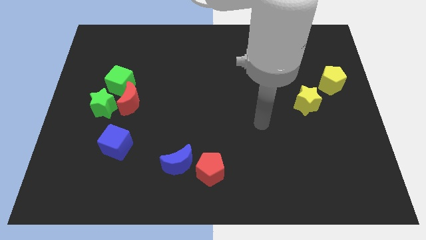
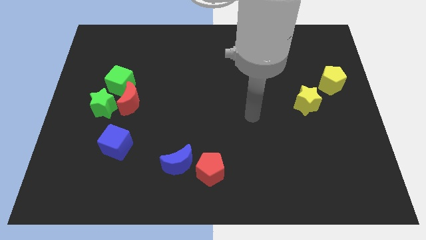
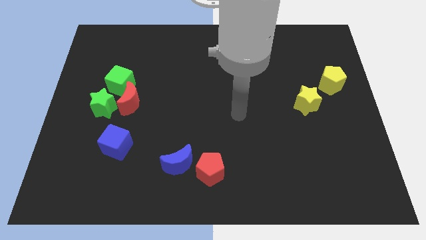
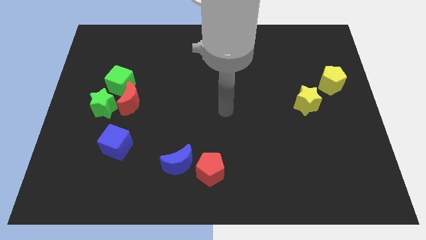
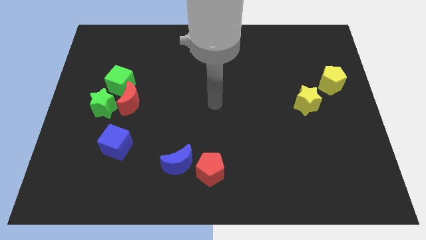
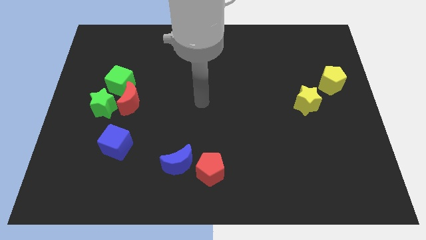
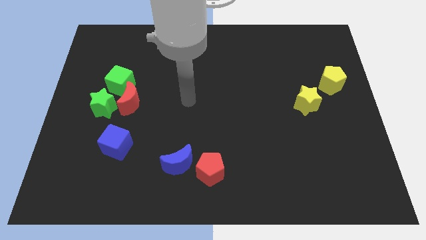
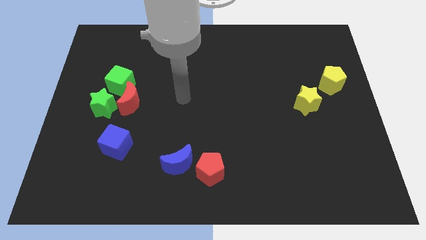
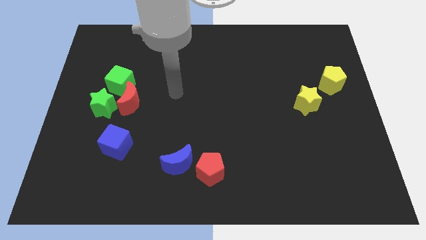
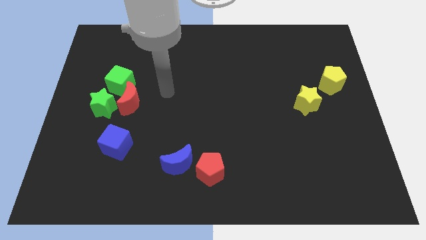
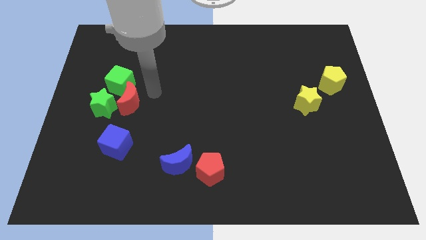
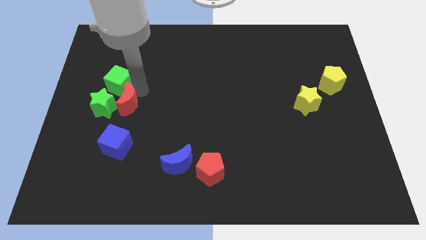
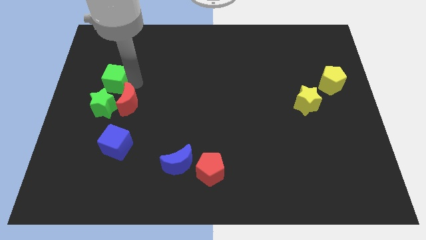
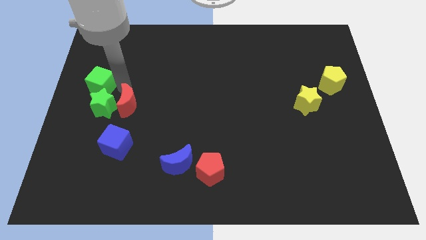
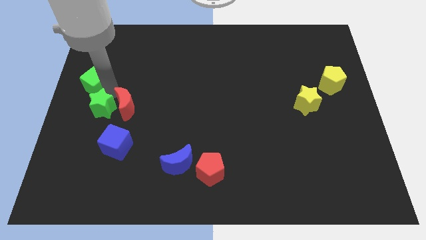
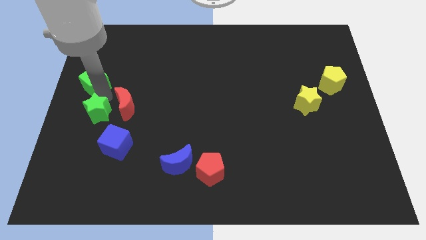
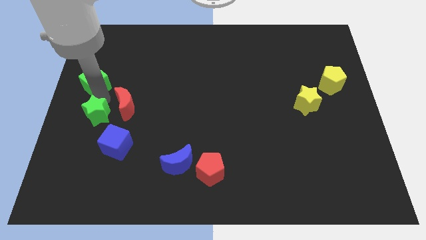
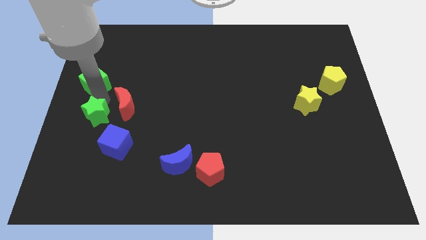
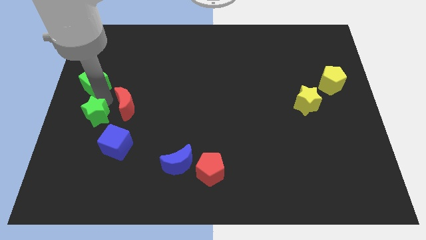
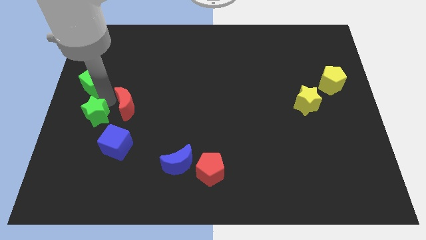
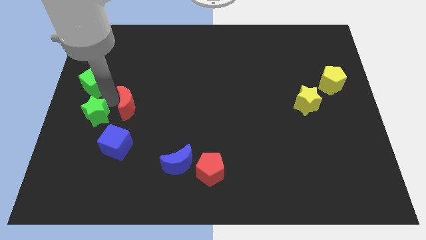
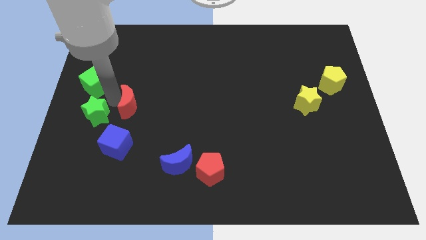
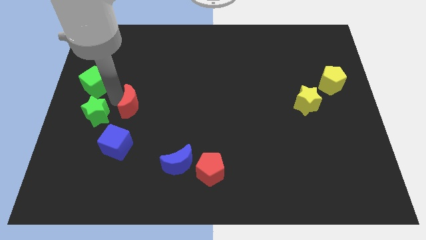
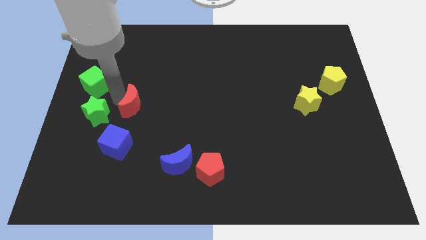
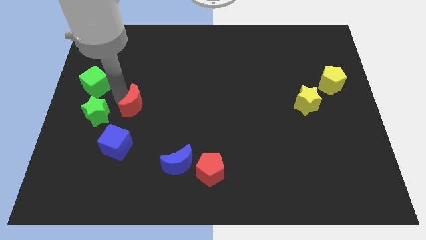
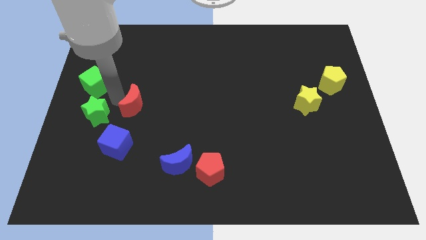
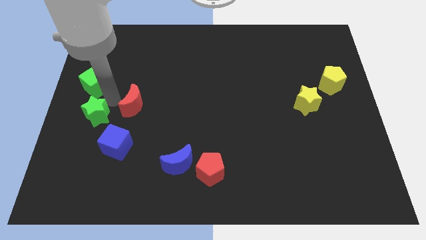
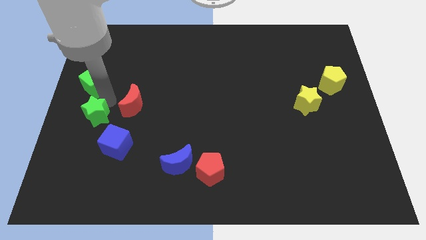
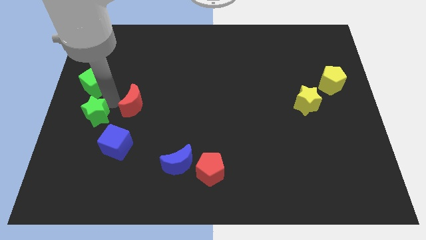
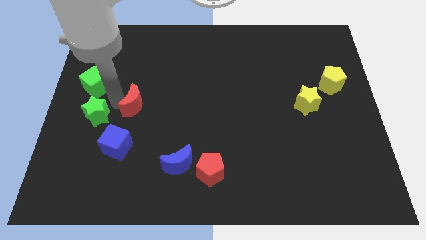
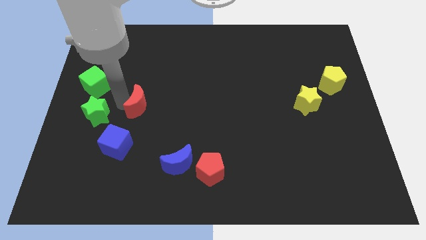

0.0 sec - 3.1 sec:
separate the red moon from the green star and green cube

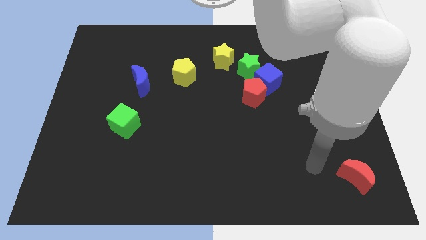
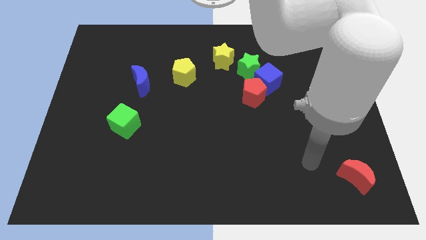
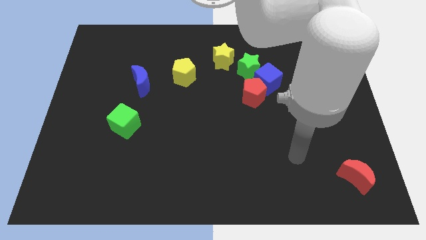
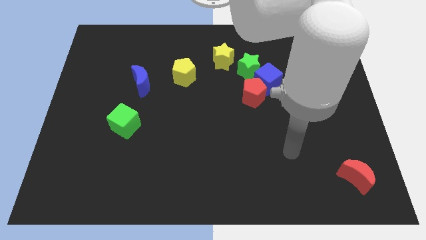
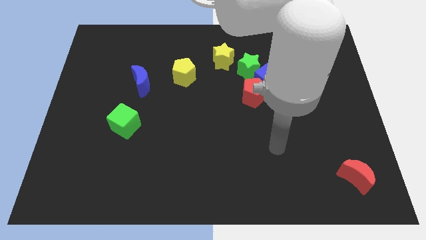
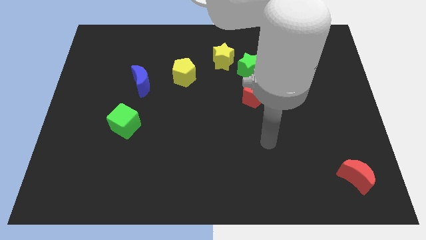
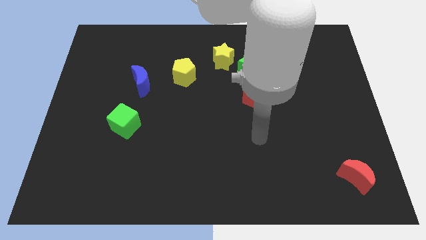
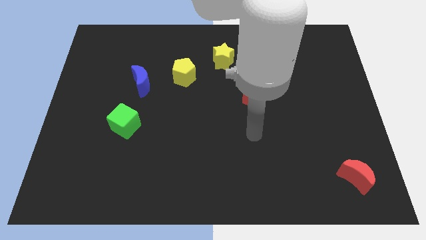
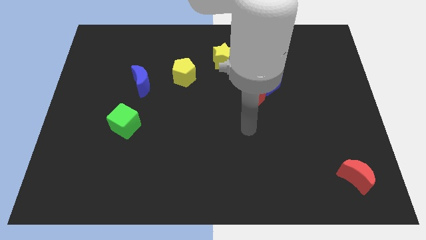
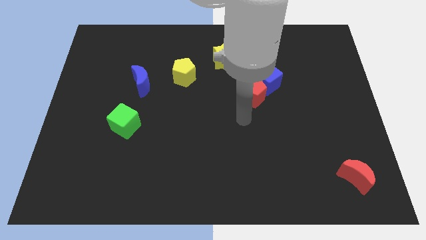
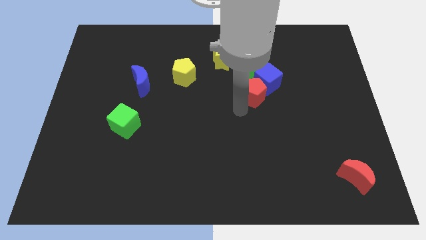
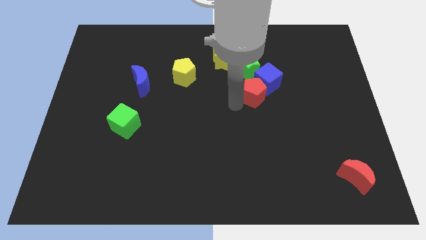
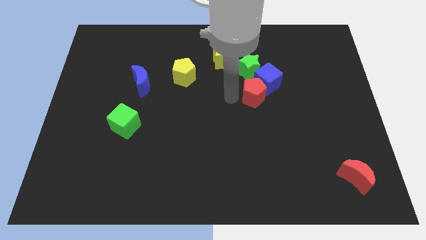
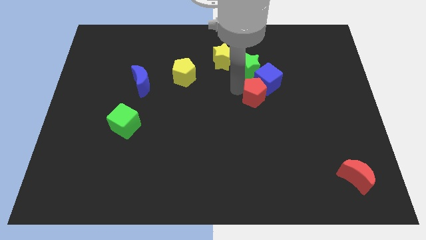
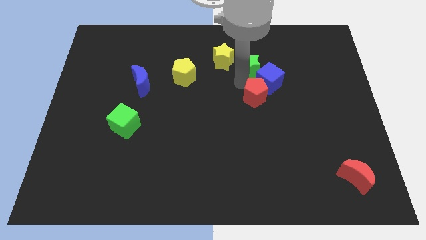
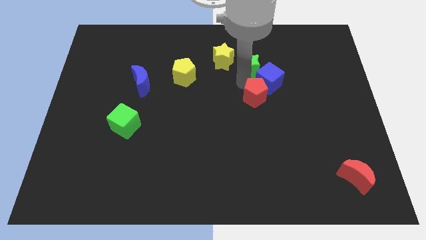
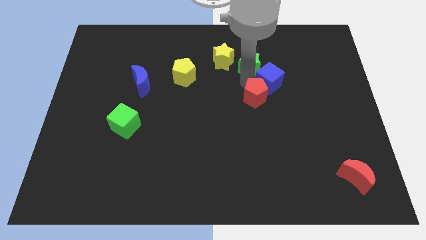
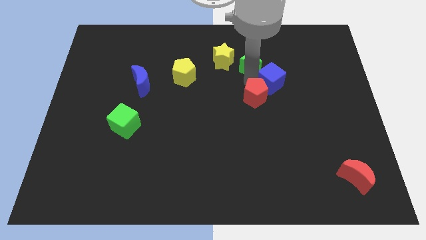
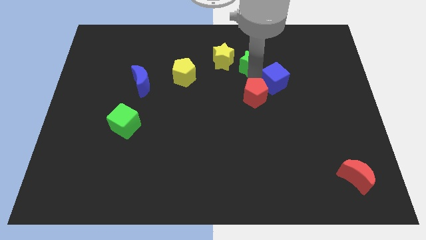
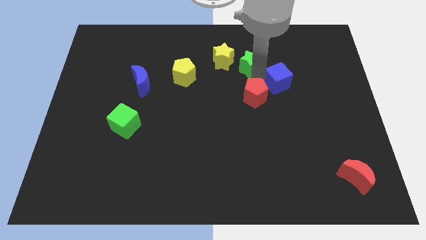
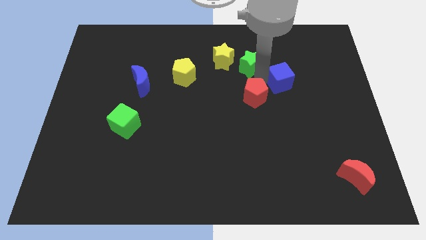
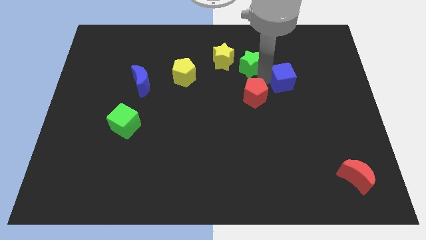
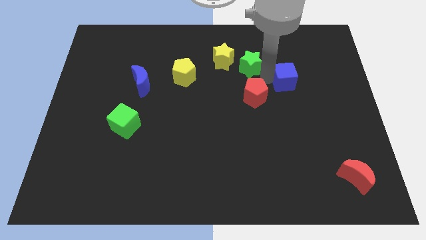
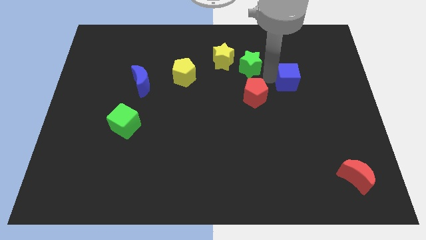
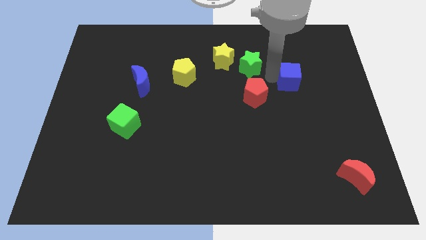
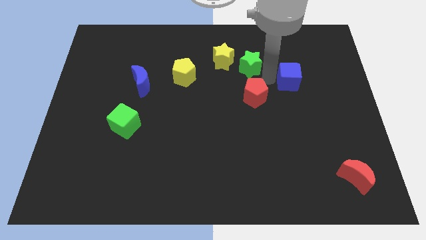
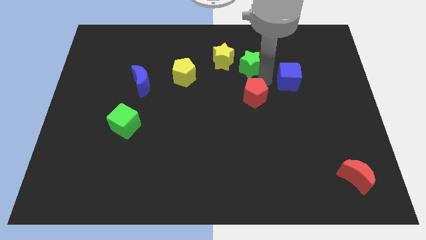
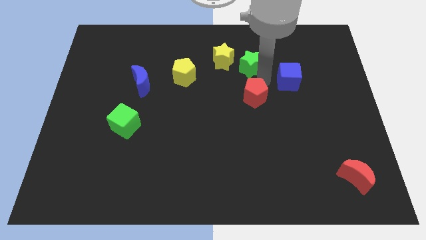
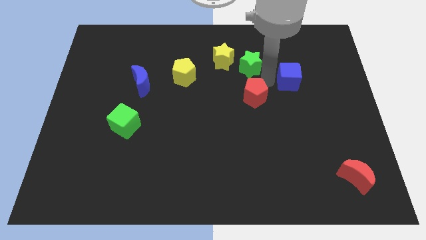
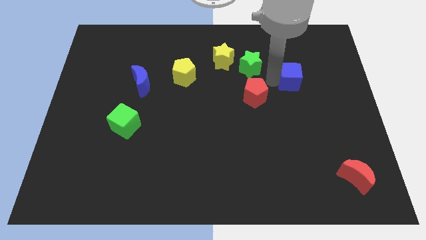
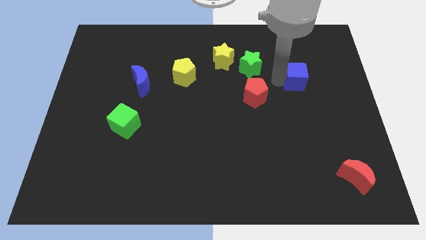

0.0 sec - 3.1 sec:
move the blue cube away from the red pentagon and green star

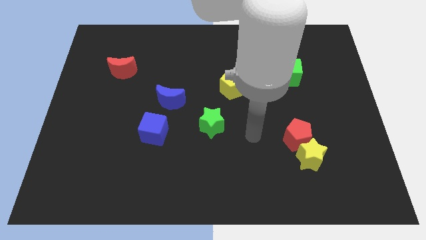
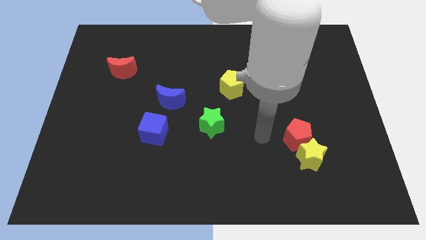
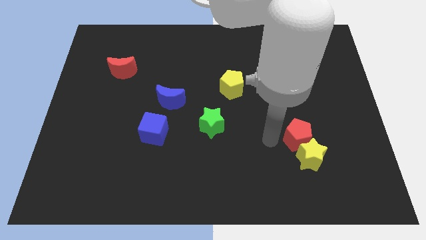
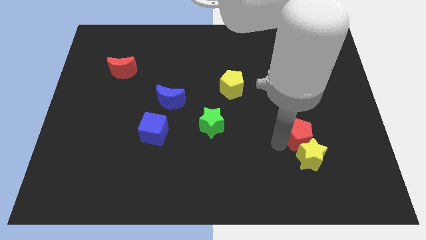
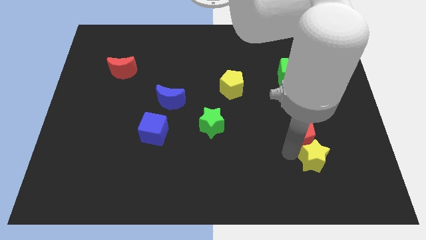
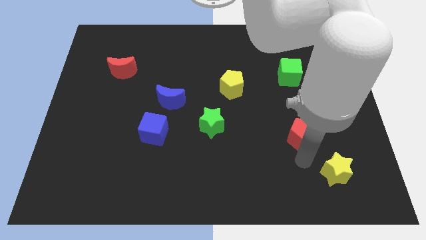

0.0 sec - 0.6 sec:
pull the red pentagon apart from the yellow star

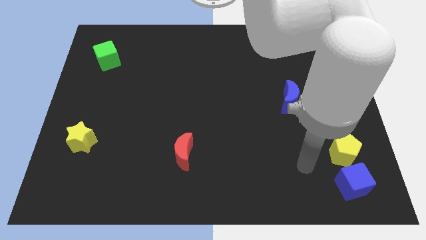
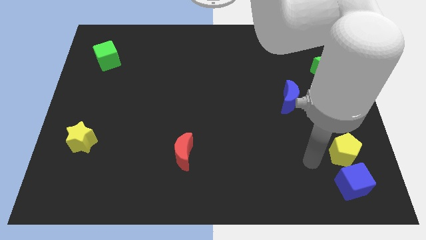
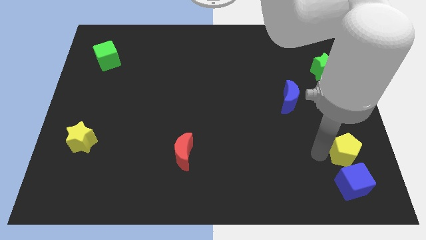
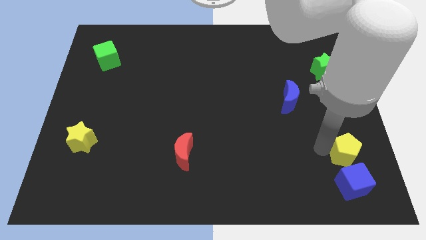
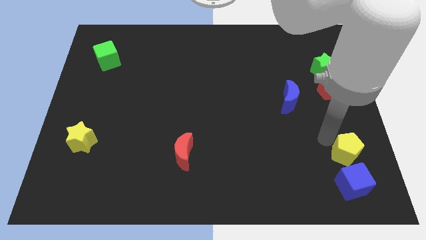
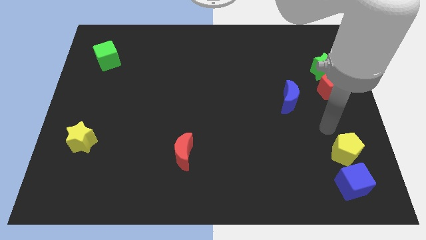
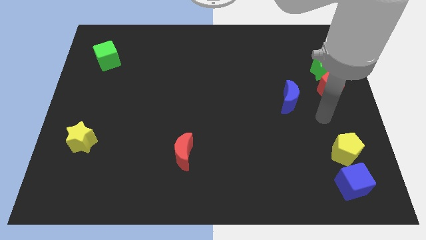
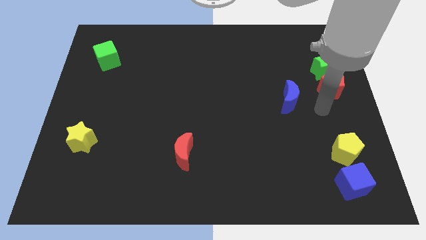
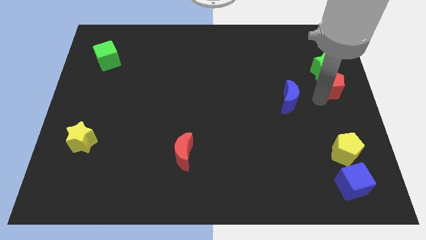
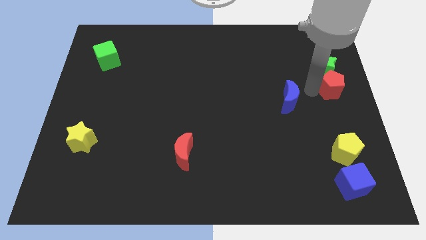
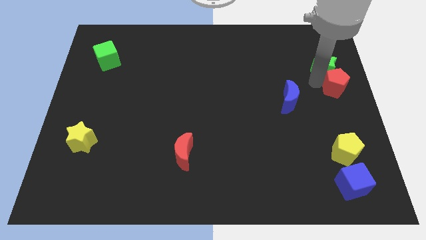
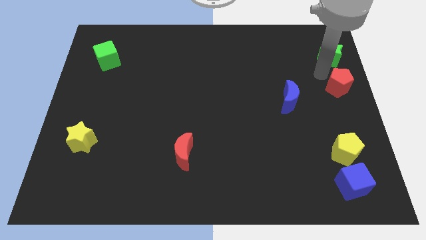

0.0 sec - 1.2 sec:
move the red pentagon away from the green star

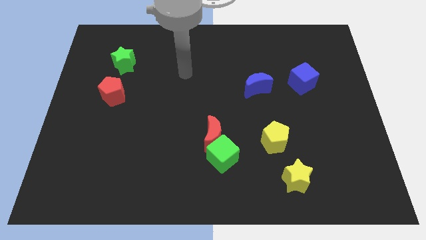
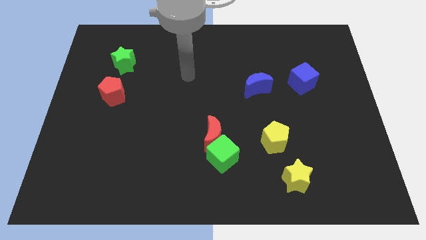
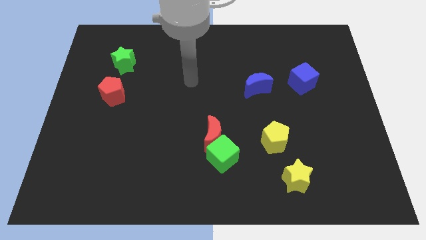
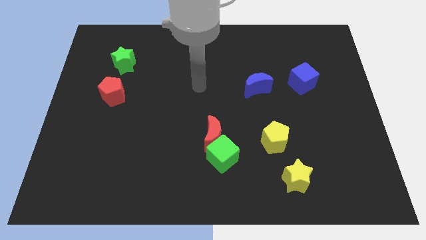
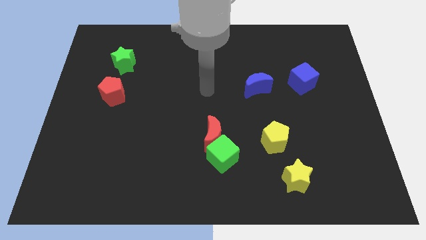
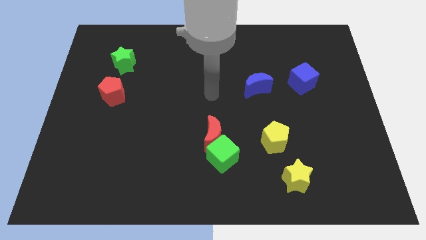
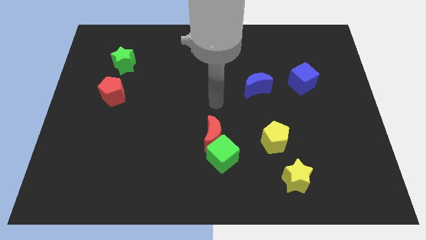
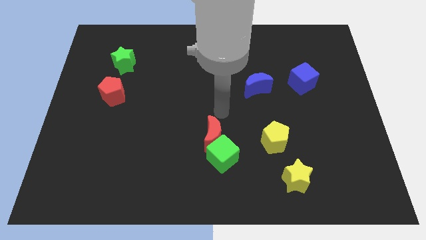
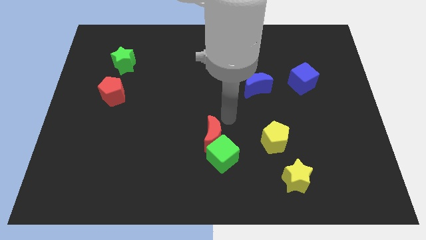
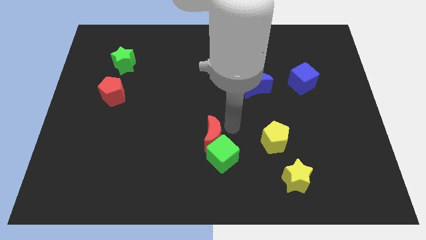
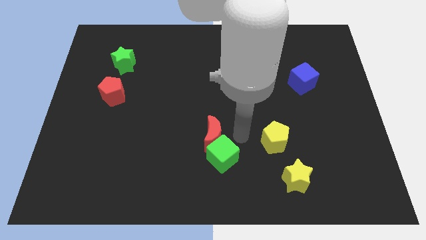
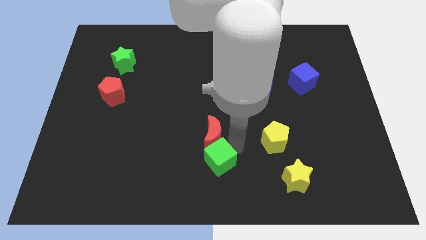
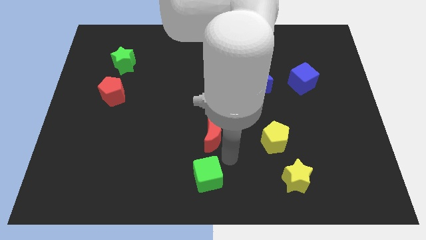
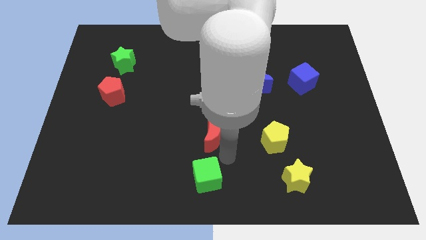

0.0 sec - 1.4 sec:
separate the red moon from the green cube
